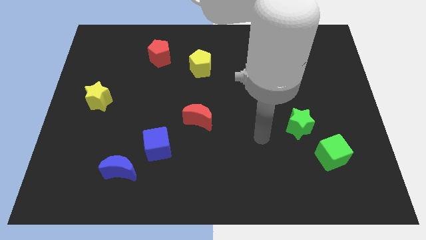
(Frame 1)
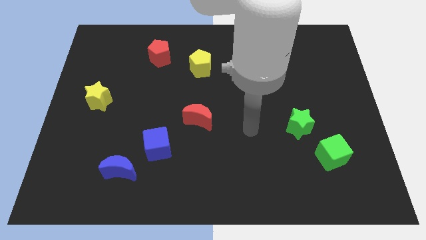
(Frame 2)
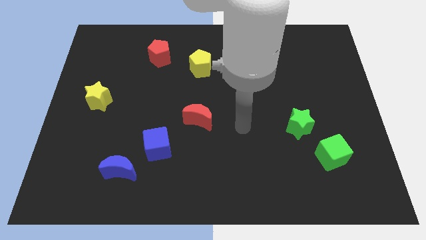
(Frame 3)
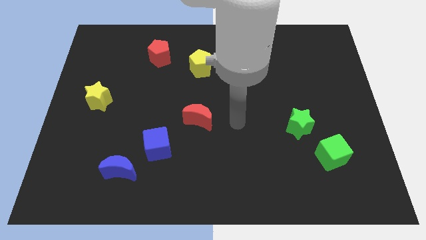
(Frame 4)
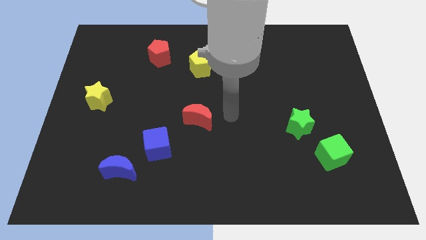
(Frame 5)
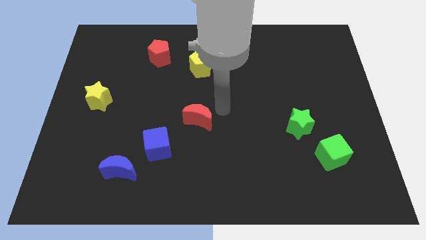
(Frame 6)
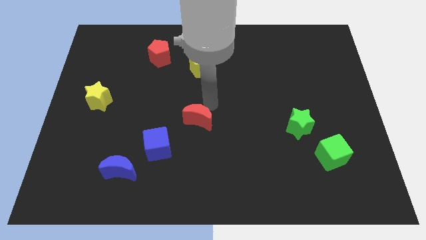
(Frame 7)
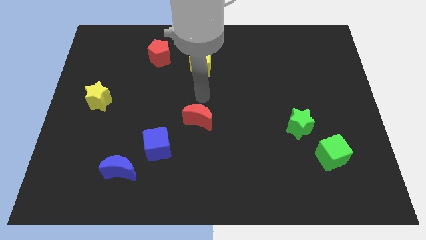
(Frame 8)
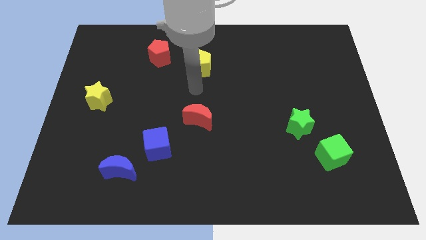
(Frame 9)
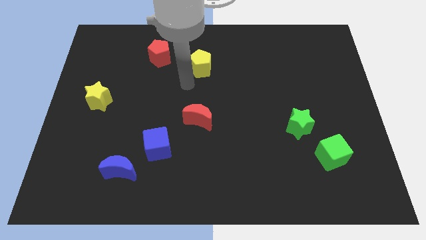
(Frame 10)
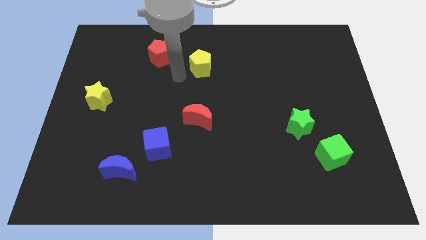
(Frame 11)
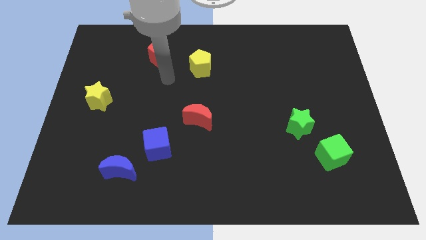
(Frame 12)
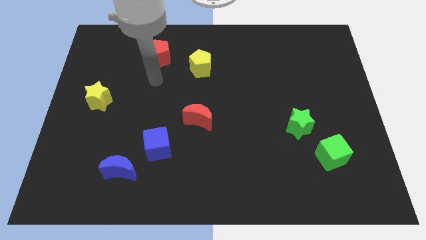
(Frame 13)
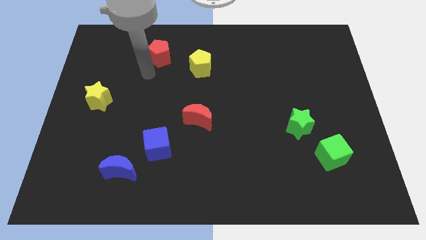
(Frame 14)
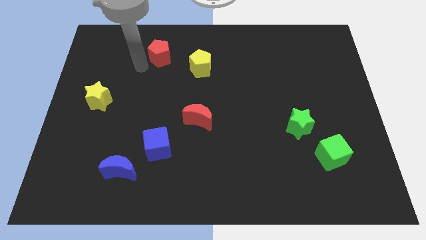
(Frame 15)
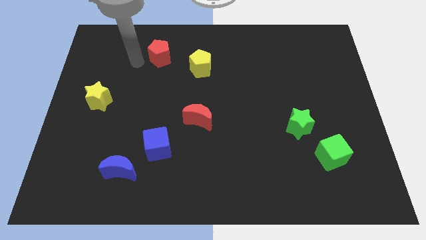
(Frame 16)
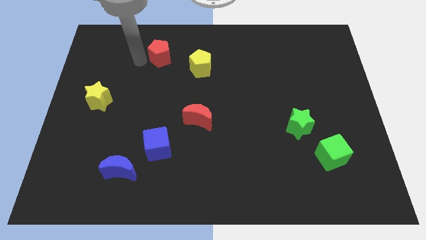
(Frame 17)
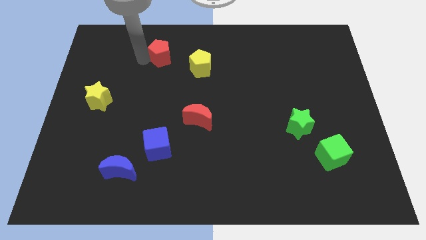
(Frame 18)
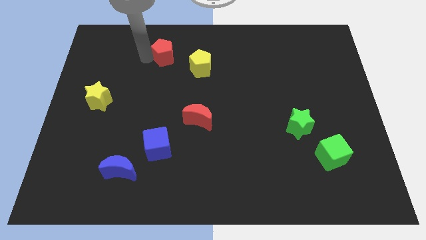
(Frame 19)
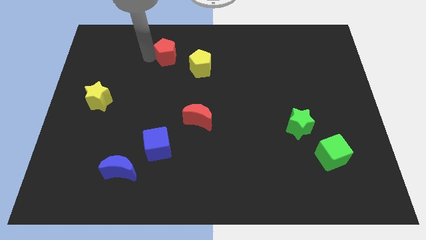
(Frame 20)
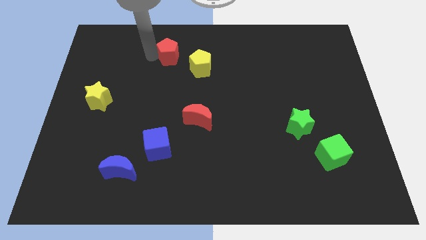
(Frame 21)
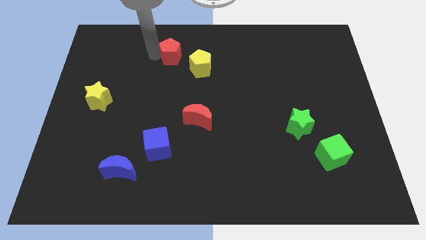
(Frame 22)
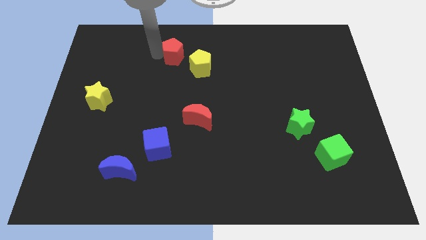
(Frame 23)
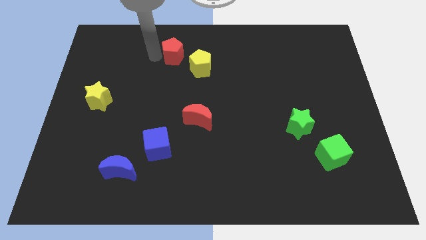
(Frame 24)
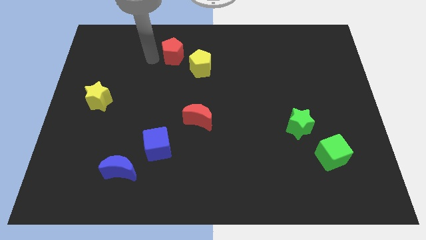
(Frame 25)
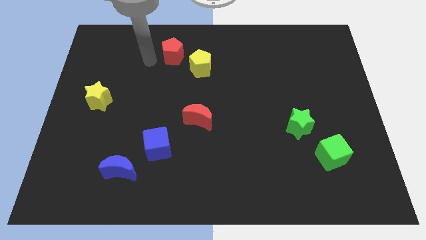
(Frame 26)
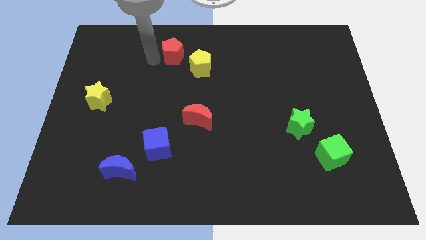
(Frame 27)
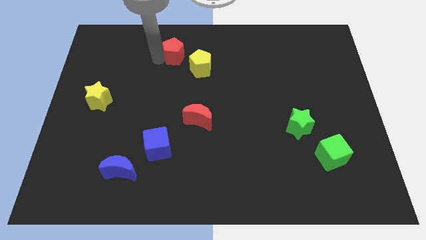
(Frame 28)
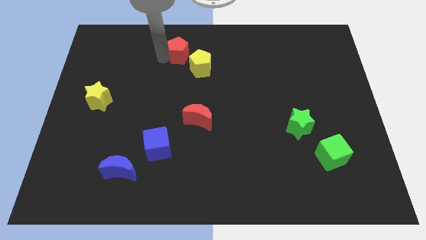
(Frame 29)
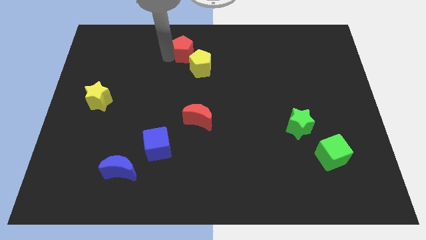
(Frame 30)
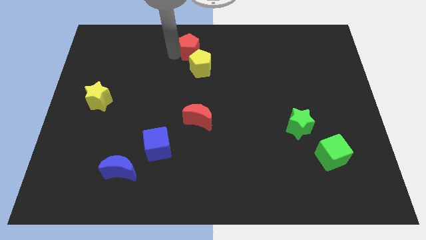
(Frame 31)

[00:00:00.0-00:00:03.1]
slightly slide the red pentagon right

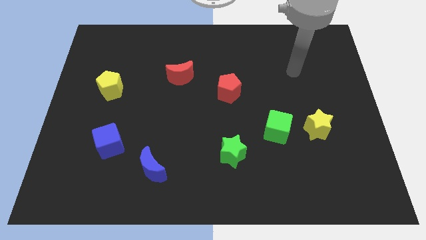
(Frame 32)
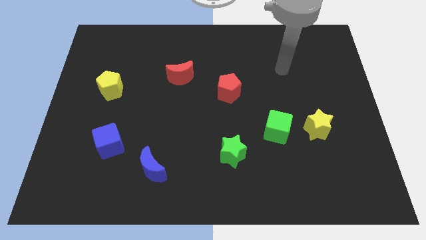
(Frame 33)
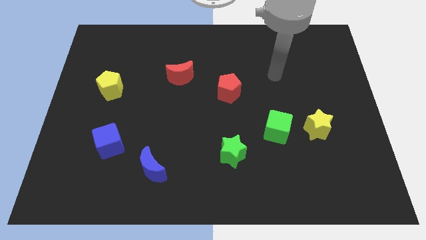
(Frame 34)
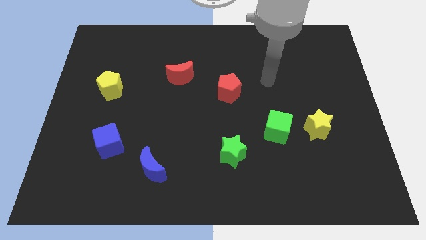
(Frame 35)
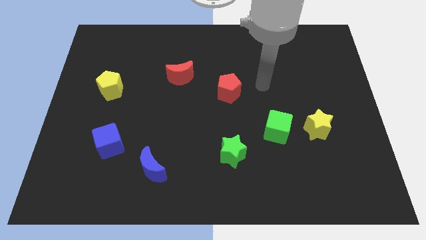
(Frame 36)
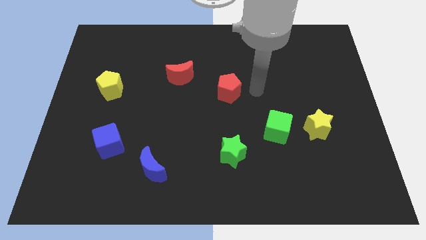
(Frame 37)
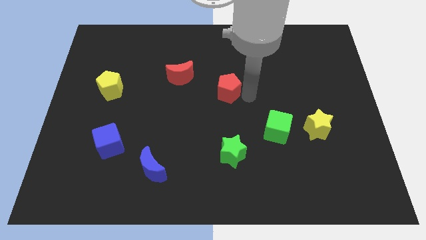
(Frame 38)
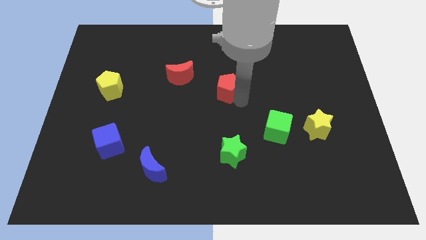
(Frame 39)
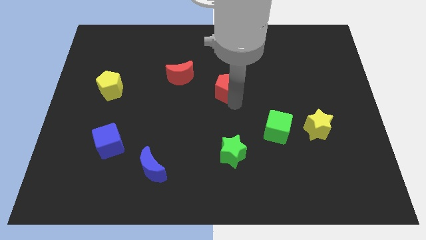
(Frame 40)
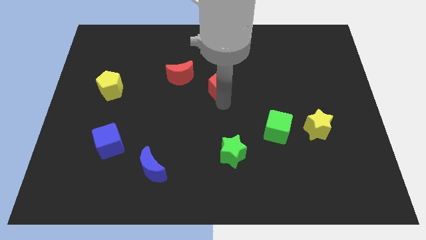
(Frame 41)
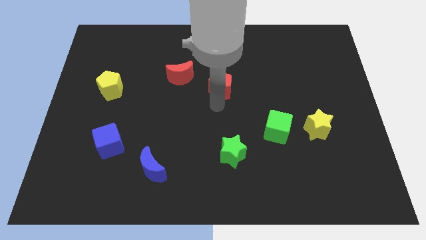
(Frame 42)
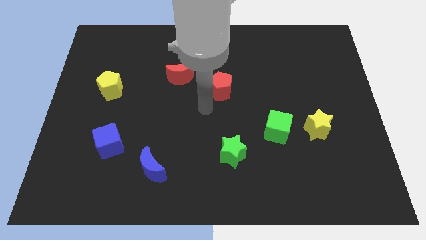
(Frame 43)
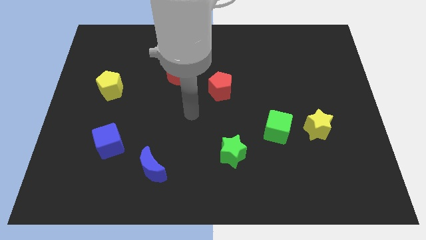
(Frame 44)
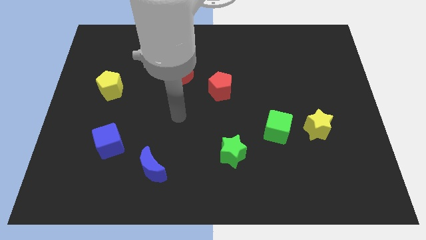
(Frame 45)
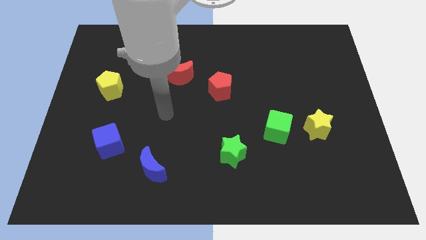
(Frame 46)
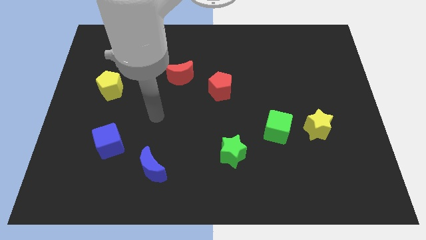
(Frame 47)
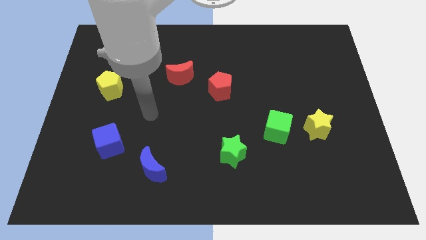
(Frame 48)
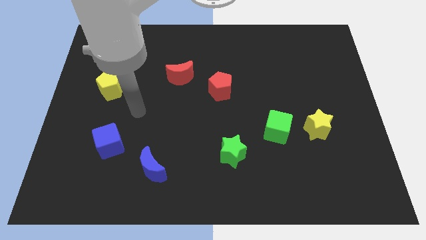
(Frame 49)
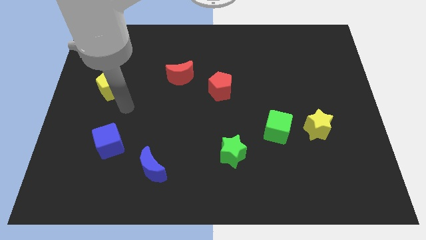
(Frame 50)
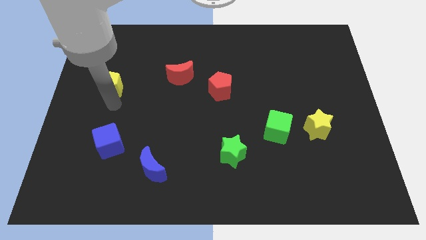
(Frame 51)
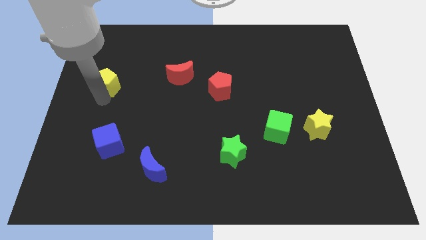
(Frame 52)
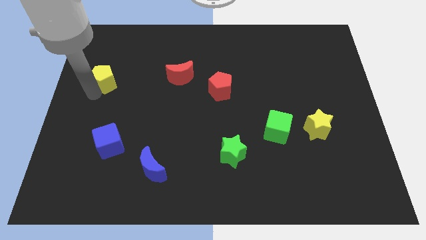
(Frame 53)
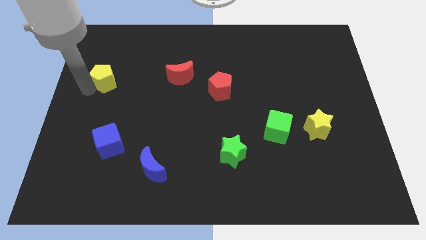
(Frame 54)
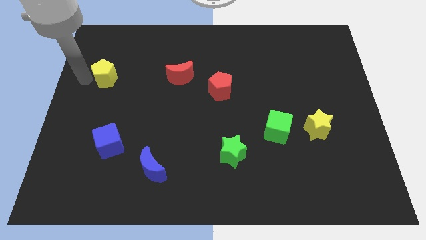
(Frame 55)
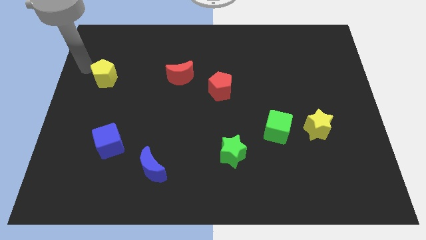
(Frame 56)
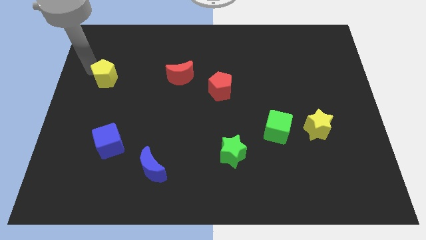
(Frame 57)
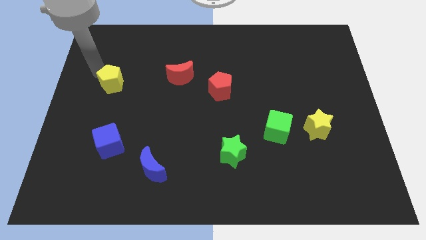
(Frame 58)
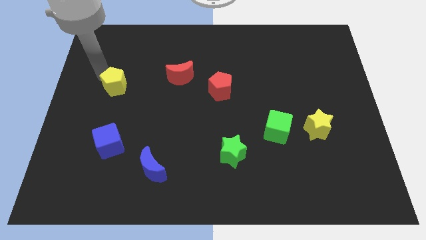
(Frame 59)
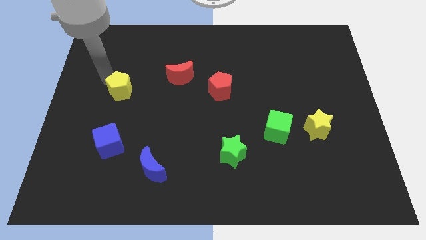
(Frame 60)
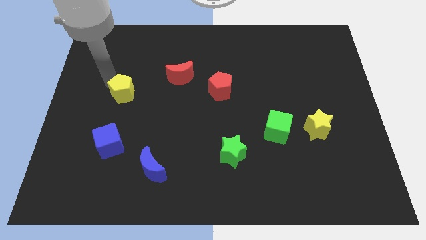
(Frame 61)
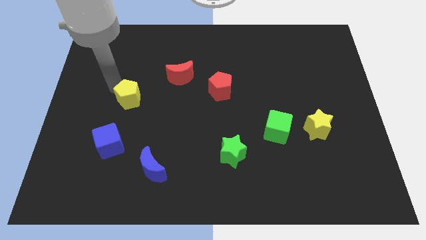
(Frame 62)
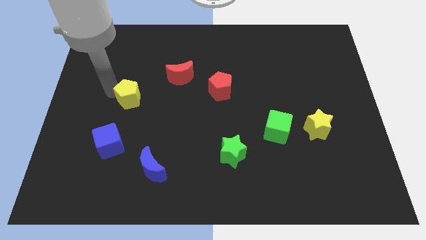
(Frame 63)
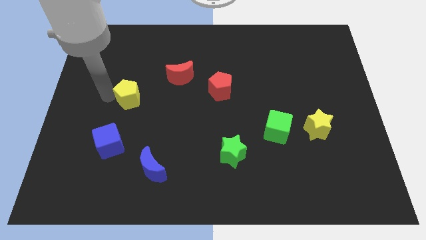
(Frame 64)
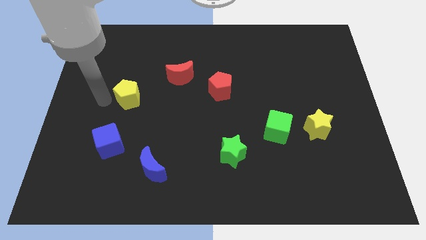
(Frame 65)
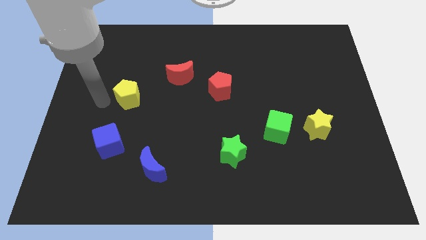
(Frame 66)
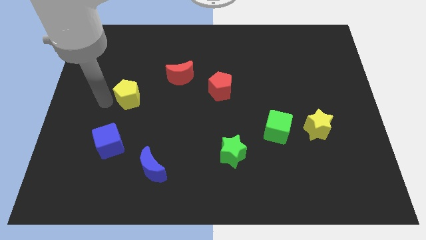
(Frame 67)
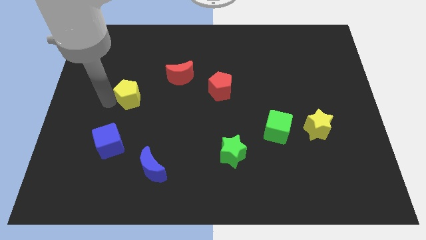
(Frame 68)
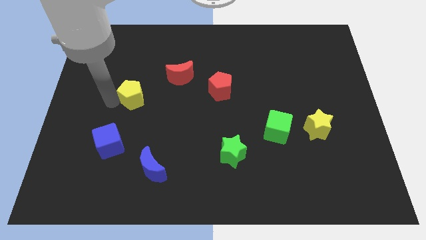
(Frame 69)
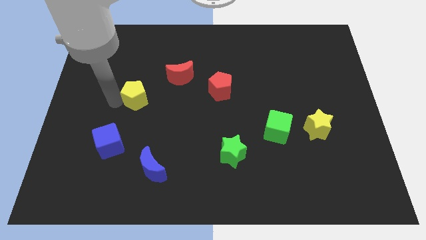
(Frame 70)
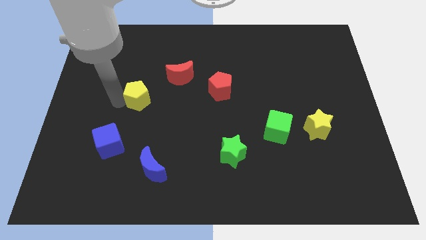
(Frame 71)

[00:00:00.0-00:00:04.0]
push the yellow pentagon slightly right

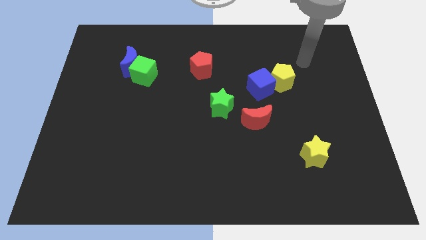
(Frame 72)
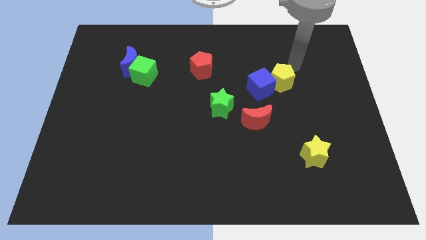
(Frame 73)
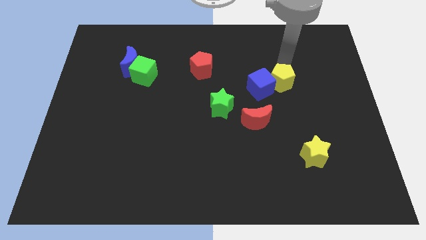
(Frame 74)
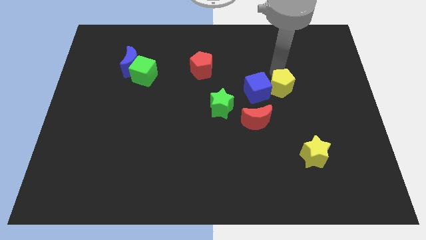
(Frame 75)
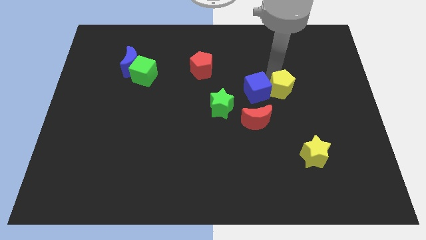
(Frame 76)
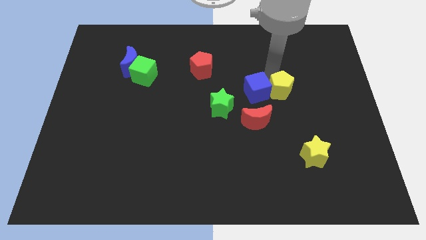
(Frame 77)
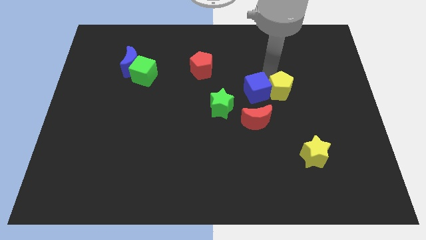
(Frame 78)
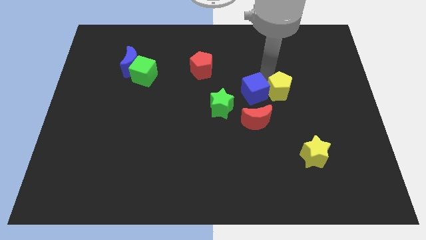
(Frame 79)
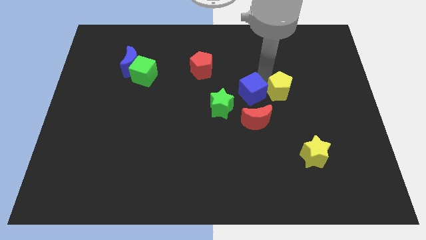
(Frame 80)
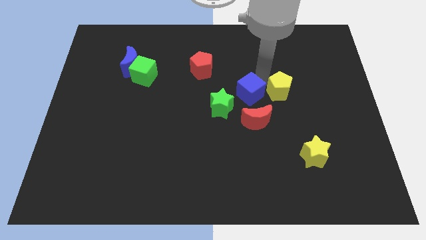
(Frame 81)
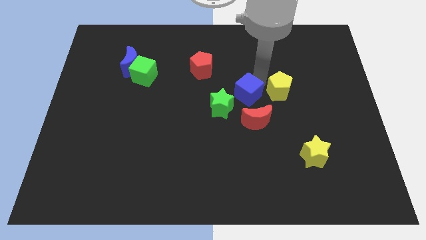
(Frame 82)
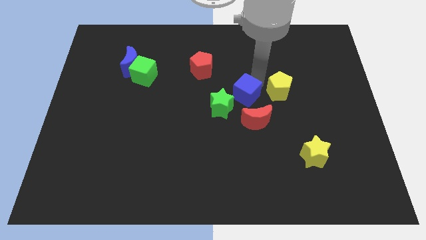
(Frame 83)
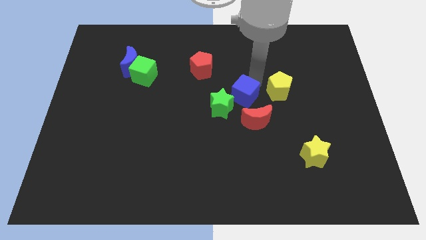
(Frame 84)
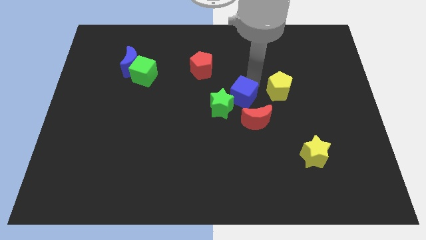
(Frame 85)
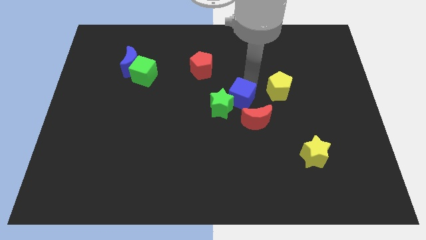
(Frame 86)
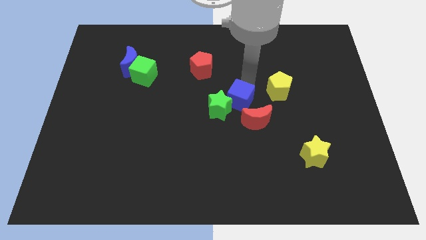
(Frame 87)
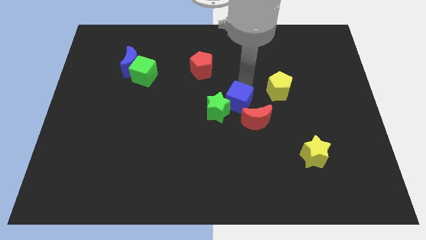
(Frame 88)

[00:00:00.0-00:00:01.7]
slightly push the blue cube diagonally down and left
